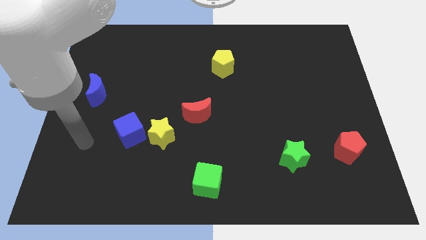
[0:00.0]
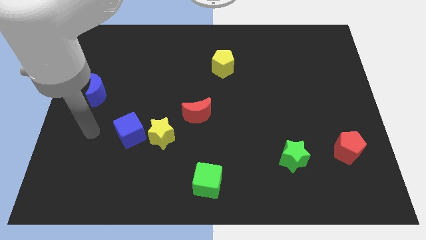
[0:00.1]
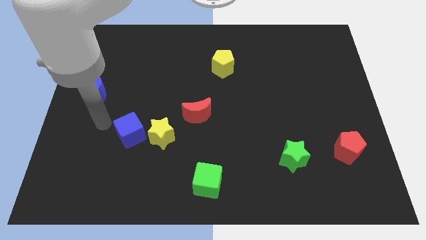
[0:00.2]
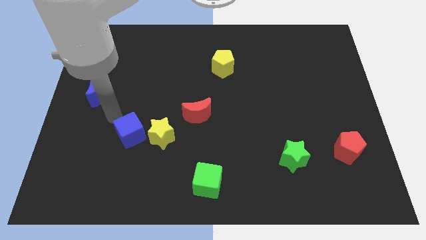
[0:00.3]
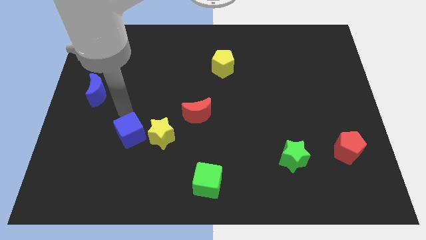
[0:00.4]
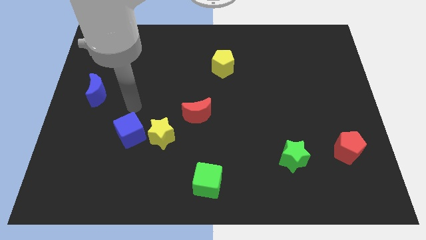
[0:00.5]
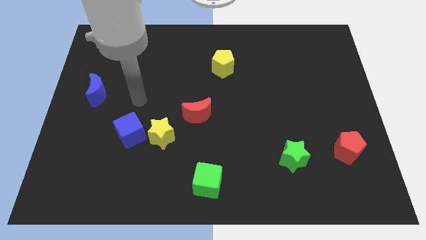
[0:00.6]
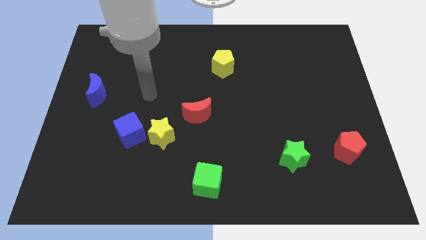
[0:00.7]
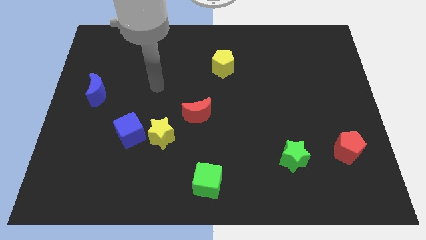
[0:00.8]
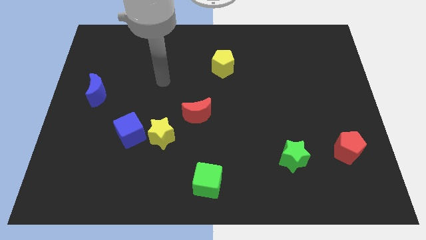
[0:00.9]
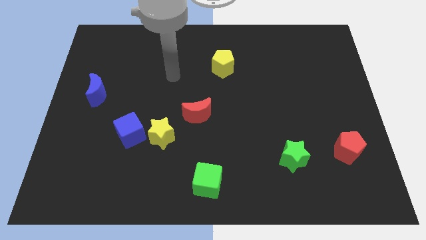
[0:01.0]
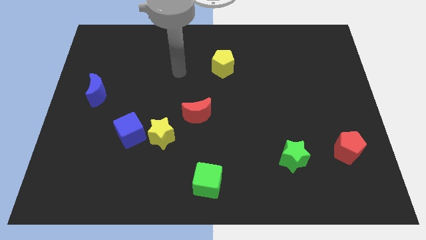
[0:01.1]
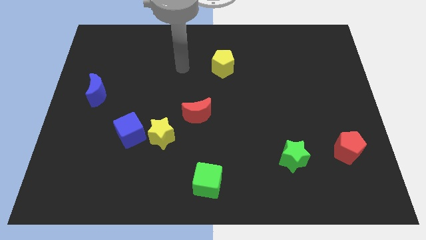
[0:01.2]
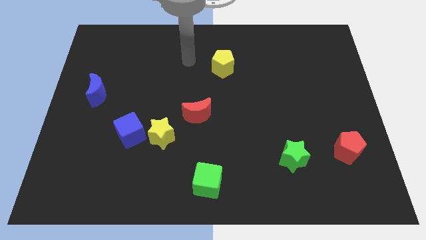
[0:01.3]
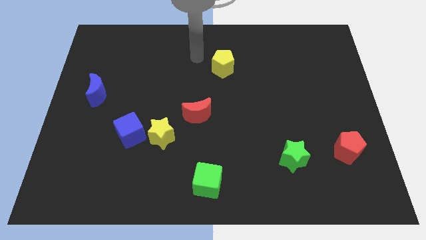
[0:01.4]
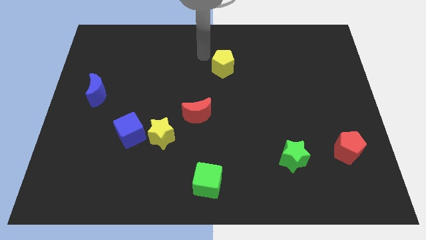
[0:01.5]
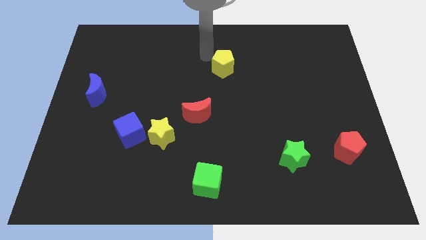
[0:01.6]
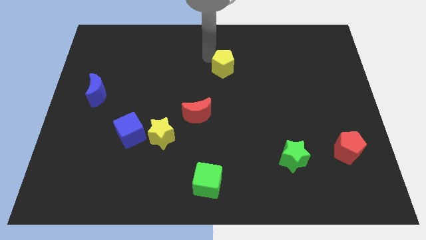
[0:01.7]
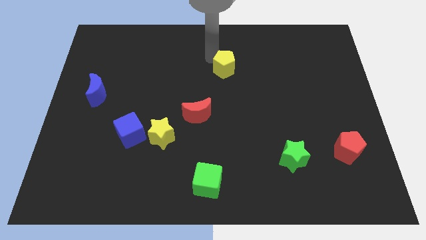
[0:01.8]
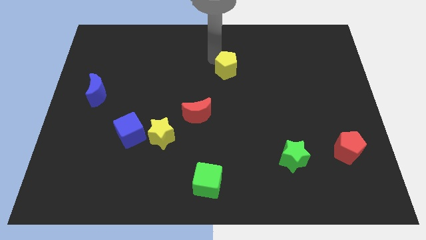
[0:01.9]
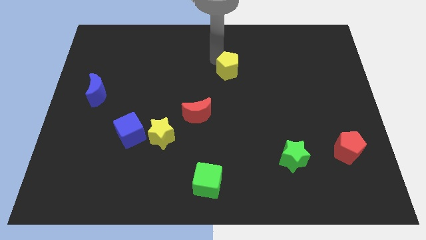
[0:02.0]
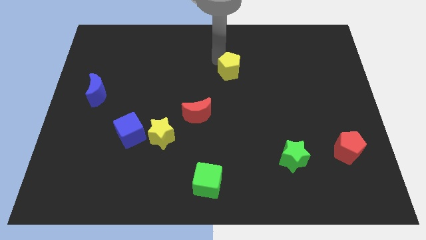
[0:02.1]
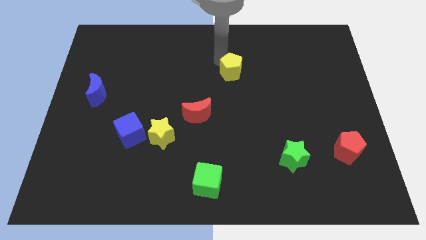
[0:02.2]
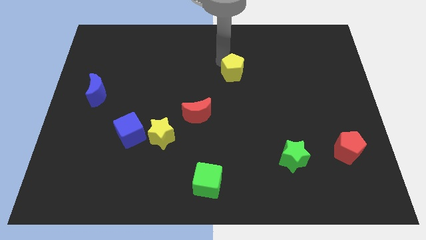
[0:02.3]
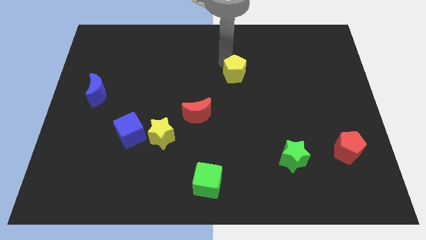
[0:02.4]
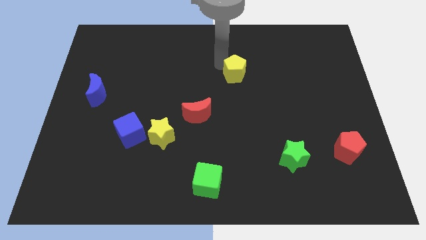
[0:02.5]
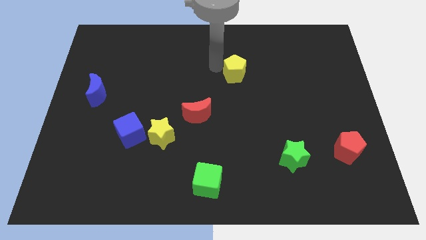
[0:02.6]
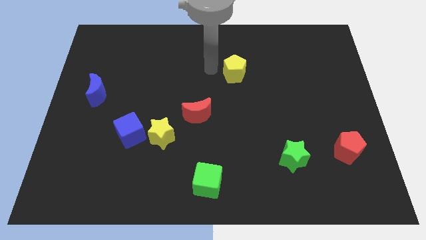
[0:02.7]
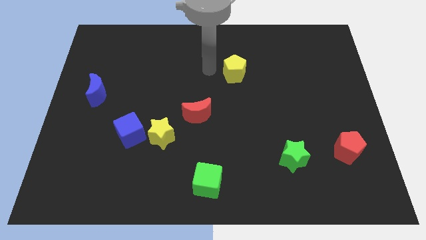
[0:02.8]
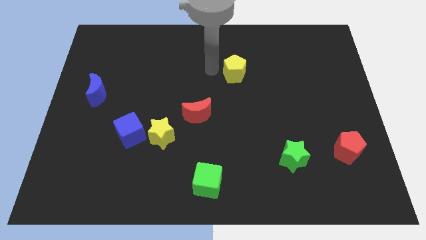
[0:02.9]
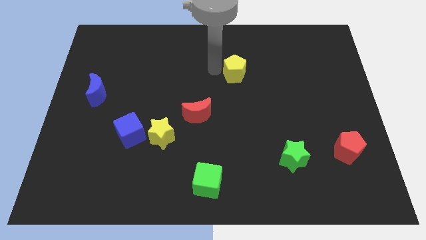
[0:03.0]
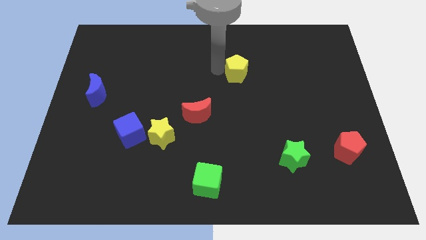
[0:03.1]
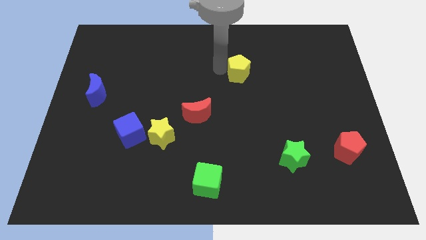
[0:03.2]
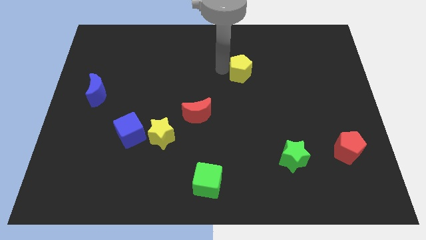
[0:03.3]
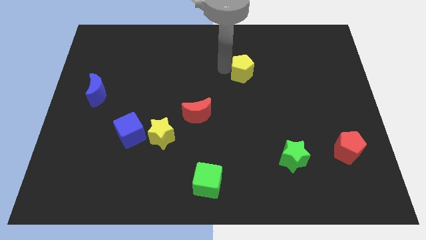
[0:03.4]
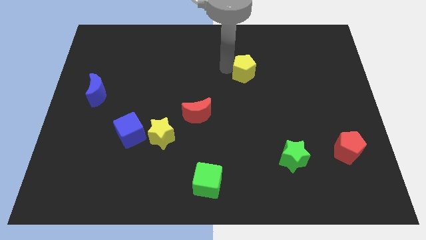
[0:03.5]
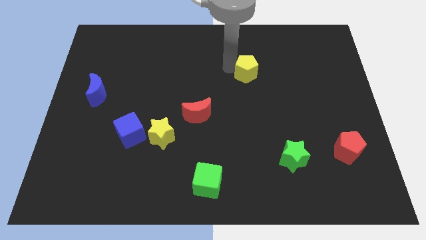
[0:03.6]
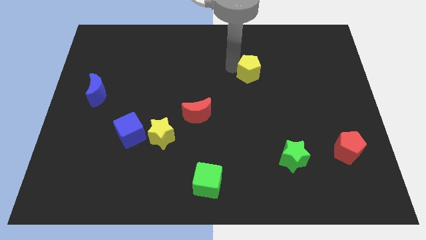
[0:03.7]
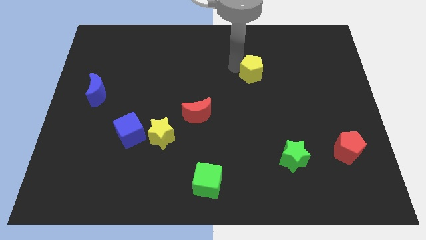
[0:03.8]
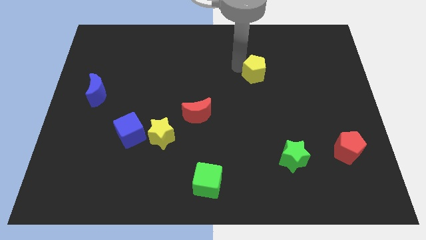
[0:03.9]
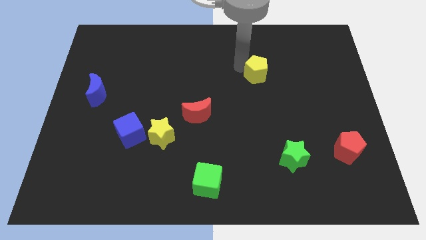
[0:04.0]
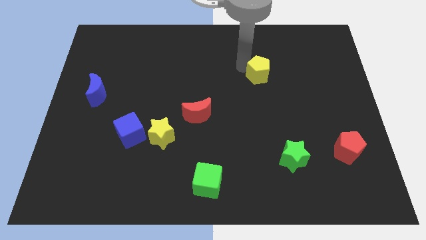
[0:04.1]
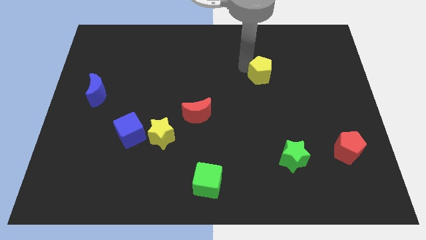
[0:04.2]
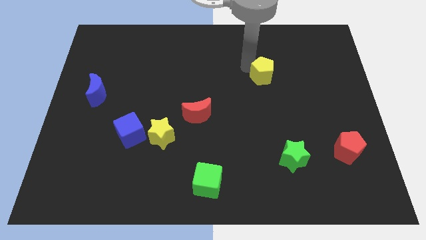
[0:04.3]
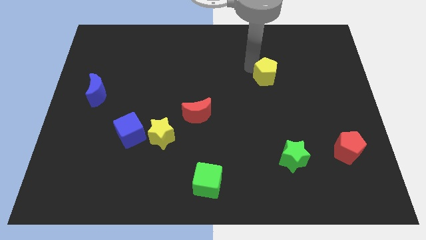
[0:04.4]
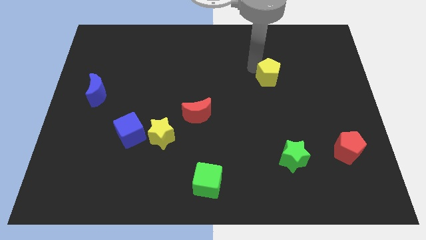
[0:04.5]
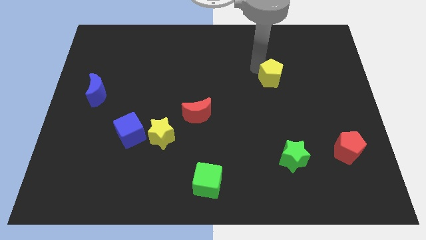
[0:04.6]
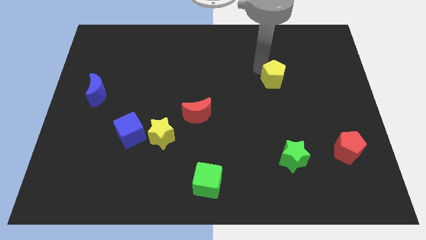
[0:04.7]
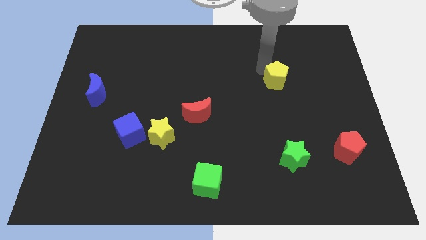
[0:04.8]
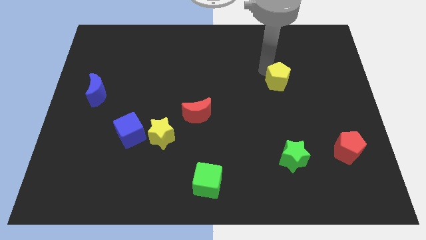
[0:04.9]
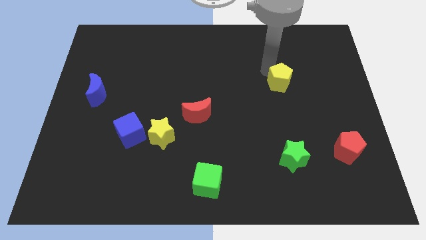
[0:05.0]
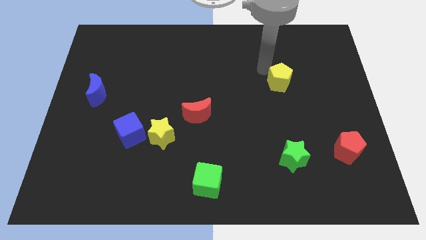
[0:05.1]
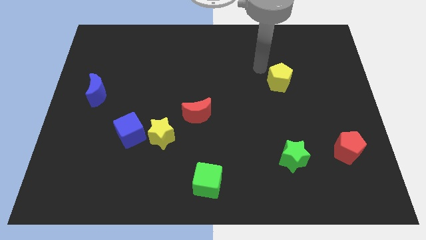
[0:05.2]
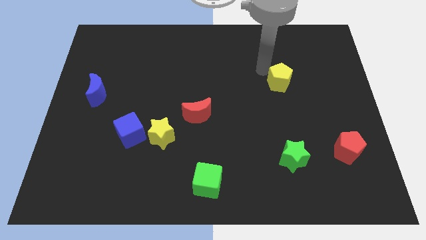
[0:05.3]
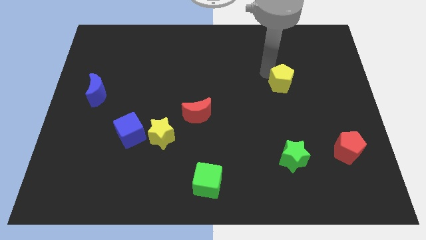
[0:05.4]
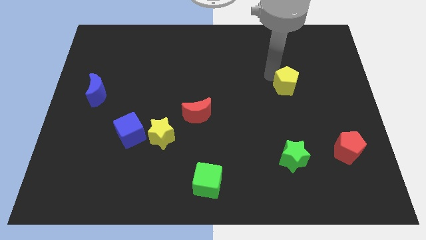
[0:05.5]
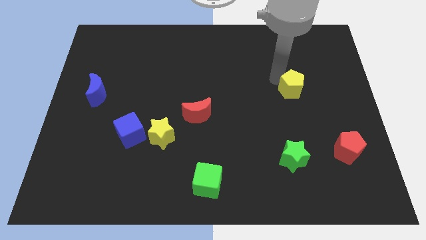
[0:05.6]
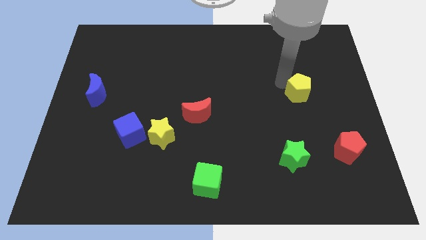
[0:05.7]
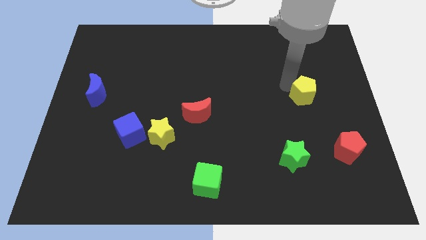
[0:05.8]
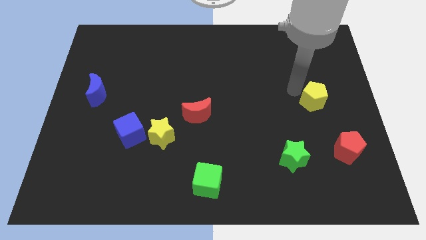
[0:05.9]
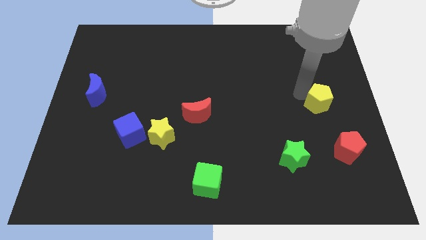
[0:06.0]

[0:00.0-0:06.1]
slide the yellow pentagon to the right side of the board

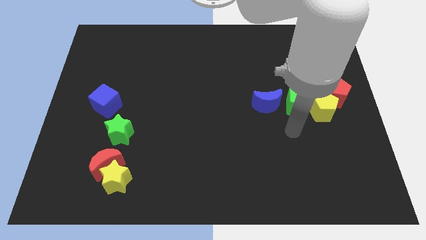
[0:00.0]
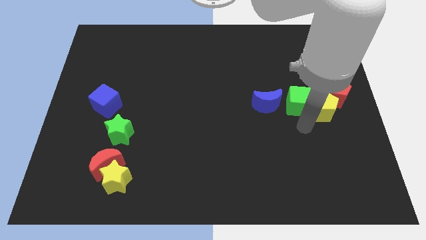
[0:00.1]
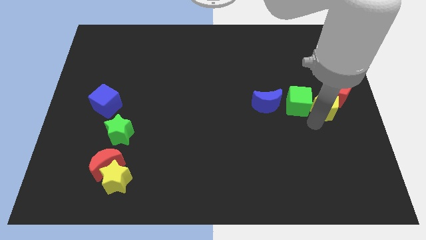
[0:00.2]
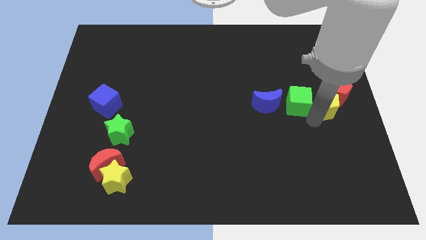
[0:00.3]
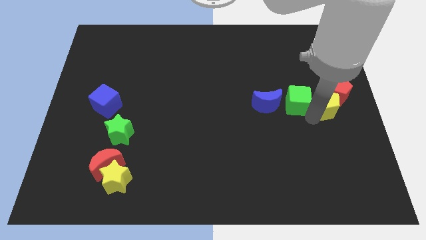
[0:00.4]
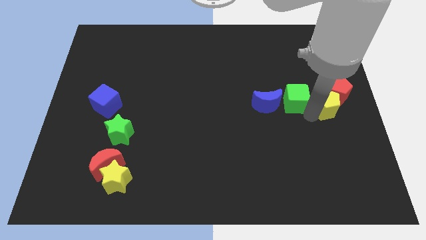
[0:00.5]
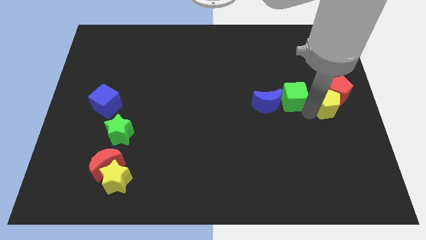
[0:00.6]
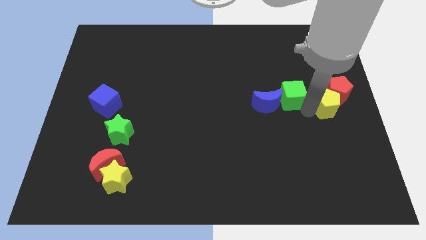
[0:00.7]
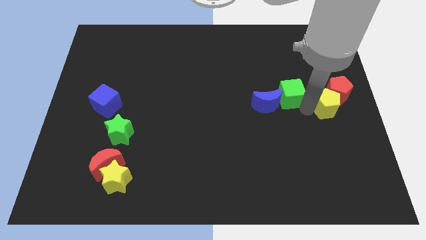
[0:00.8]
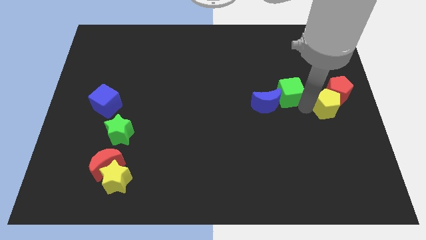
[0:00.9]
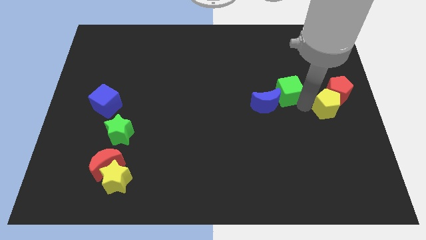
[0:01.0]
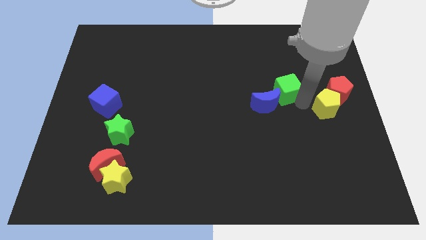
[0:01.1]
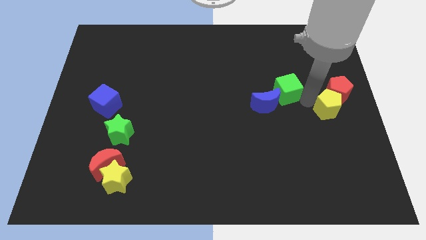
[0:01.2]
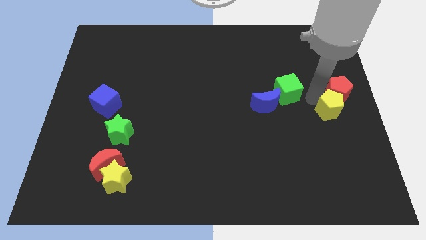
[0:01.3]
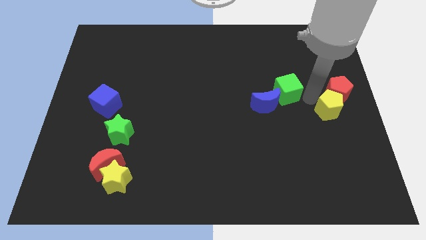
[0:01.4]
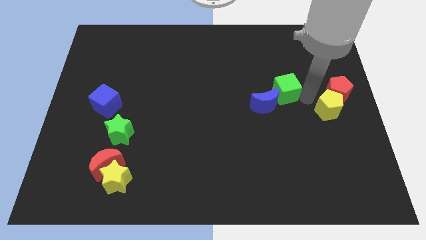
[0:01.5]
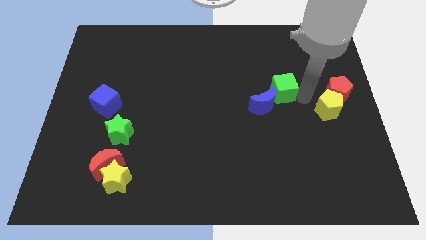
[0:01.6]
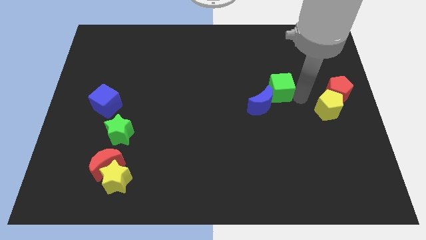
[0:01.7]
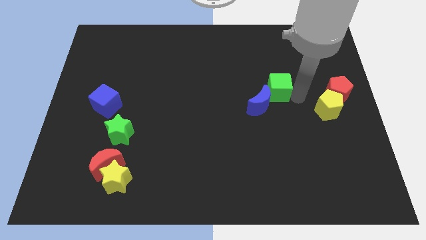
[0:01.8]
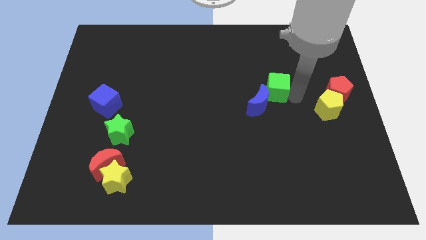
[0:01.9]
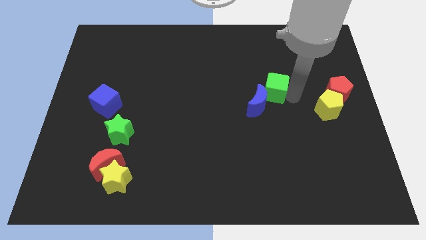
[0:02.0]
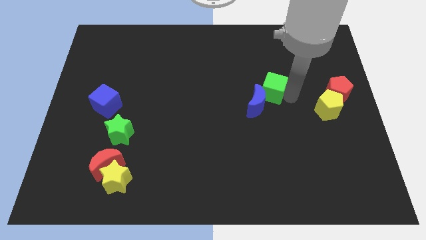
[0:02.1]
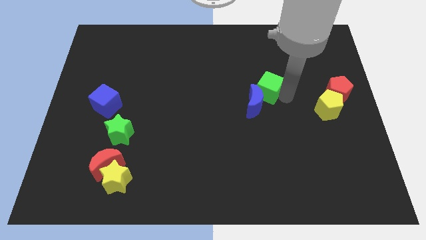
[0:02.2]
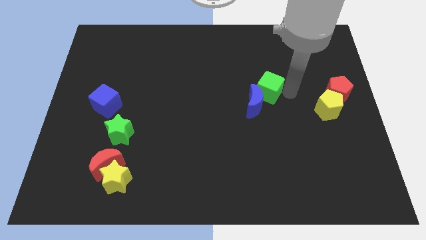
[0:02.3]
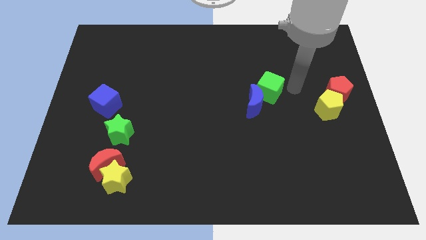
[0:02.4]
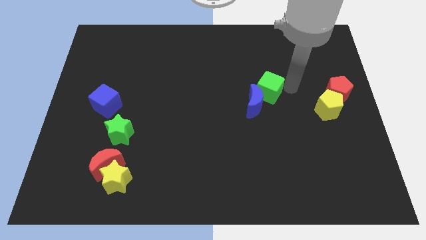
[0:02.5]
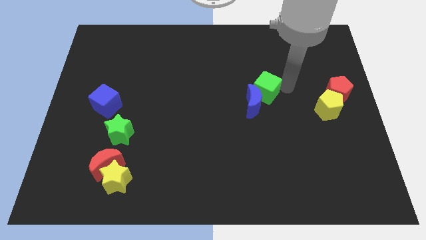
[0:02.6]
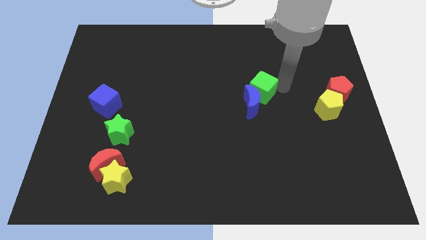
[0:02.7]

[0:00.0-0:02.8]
move the green cube to the middle
